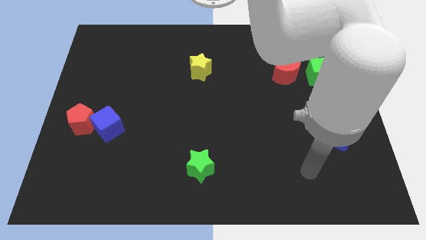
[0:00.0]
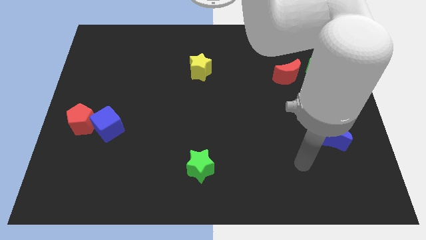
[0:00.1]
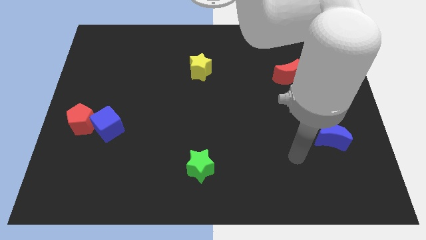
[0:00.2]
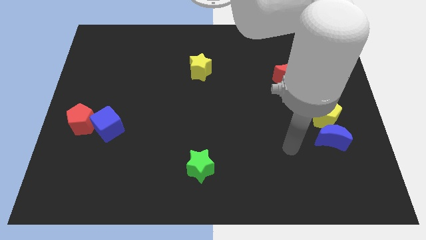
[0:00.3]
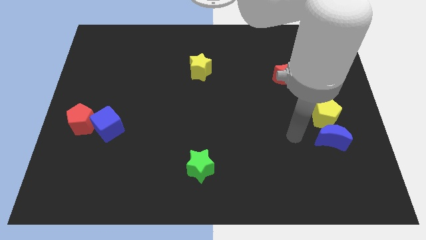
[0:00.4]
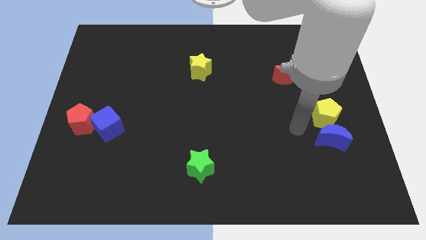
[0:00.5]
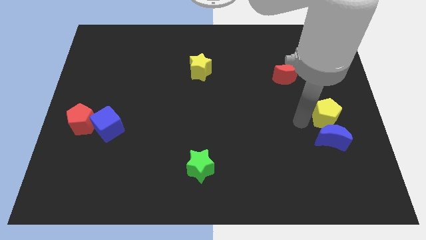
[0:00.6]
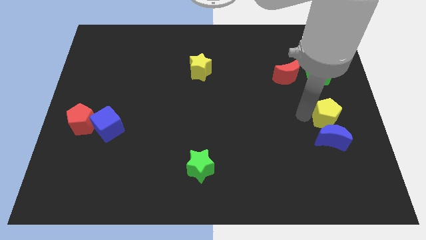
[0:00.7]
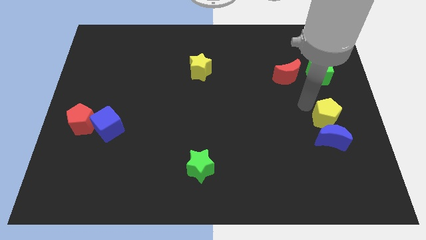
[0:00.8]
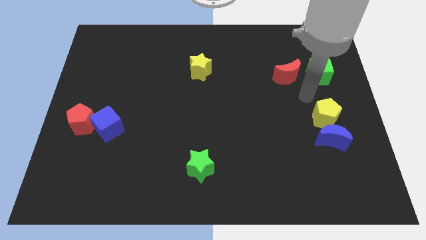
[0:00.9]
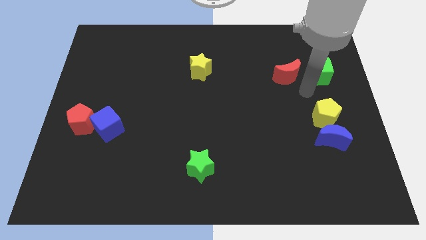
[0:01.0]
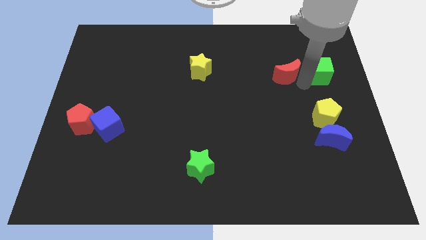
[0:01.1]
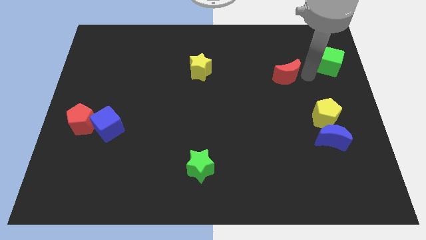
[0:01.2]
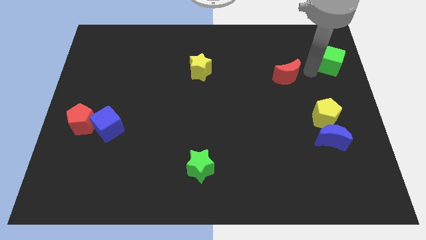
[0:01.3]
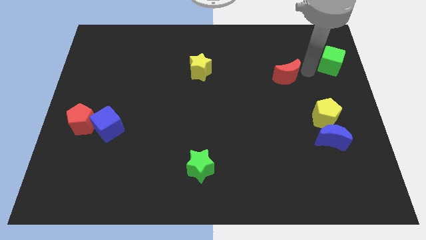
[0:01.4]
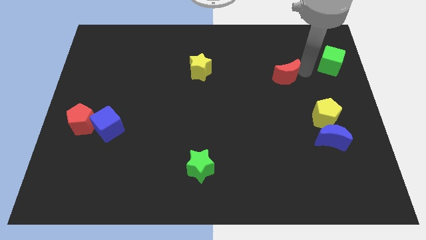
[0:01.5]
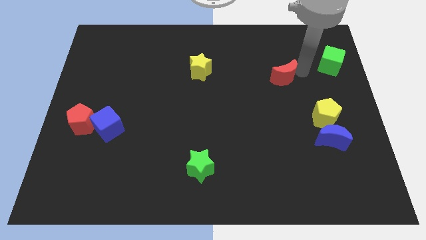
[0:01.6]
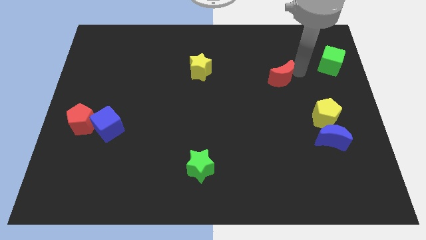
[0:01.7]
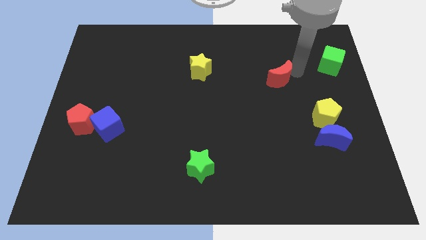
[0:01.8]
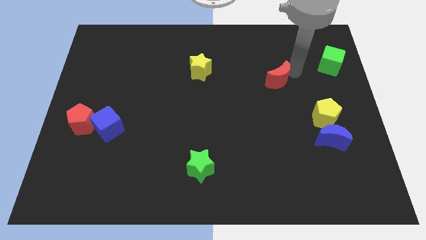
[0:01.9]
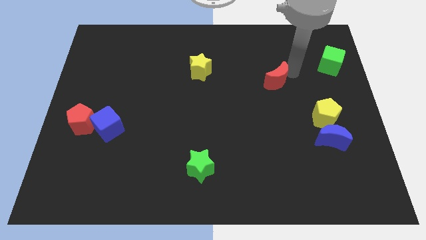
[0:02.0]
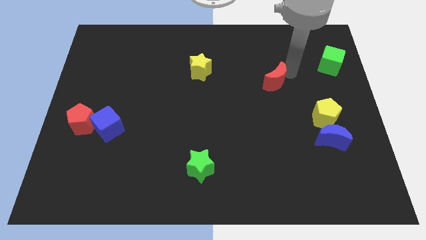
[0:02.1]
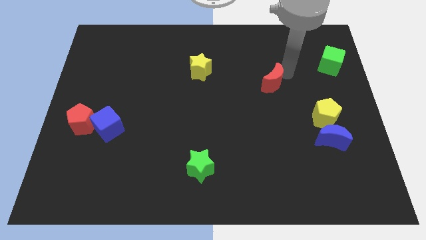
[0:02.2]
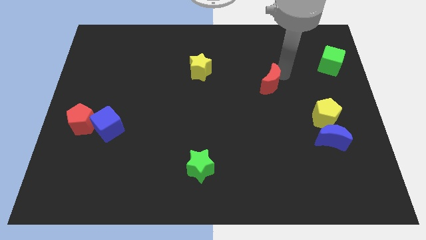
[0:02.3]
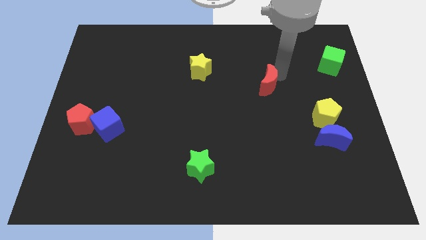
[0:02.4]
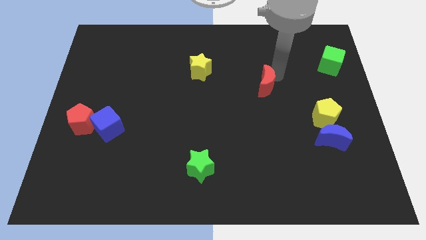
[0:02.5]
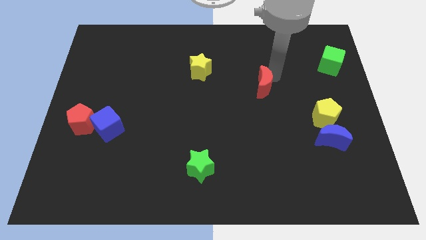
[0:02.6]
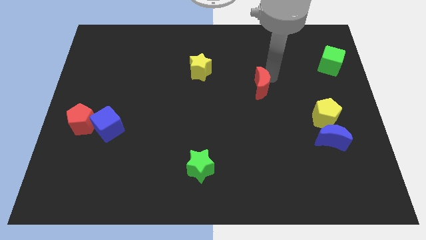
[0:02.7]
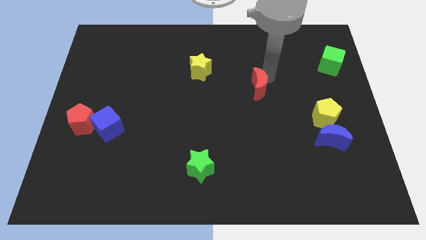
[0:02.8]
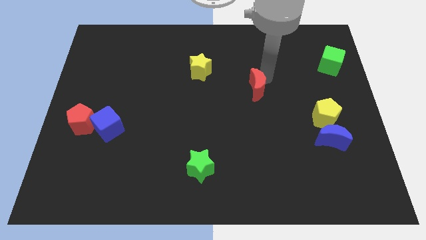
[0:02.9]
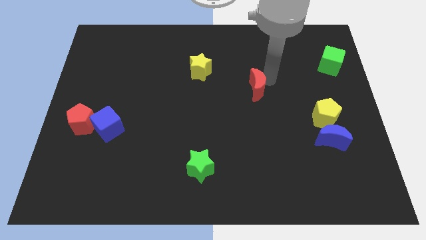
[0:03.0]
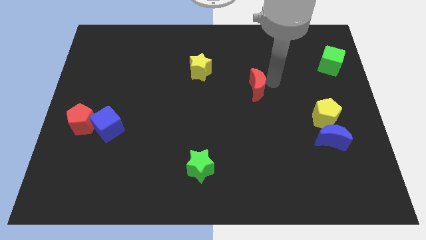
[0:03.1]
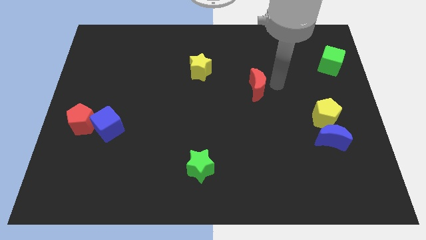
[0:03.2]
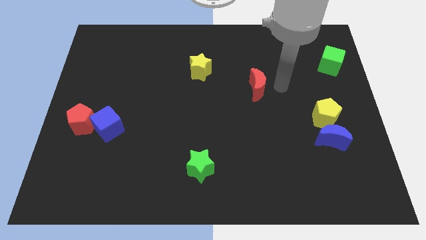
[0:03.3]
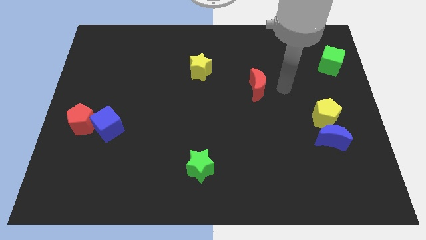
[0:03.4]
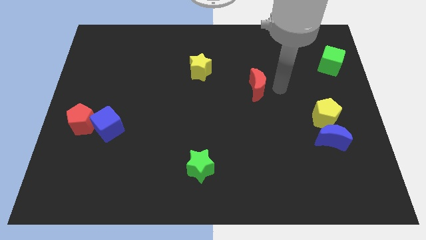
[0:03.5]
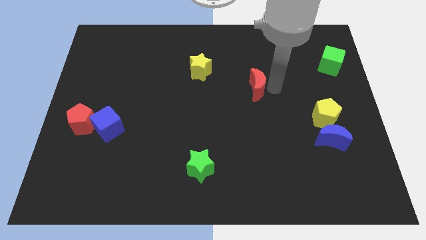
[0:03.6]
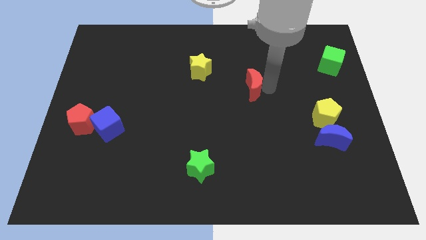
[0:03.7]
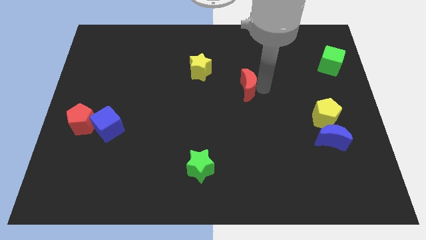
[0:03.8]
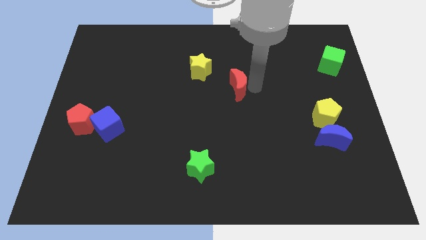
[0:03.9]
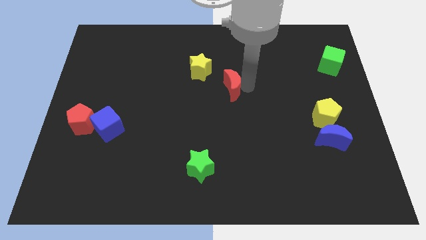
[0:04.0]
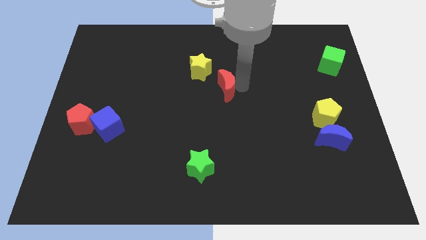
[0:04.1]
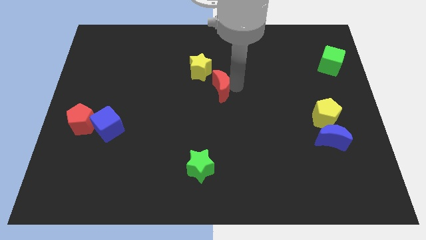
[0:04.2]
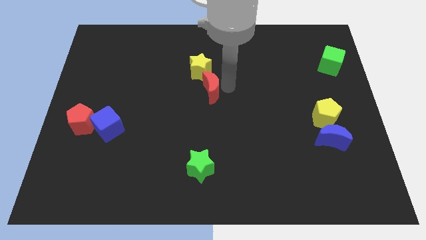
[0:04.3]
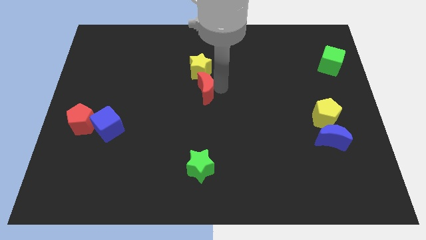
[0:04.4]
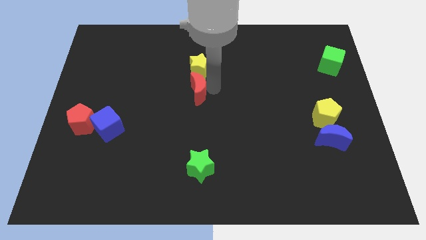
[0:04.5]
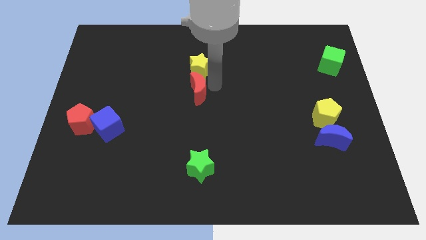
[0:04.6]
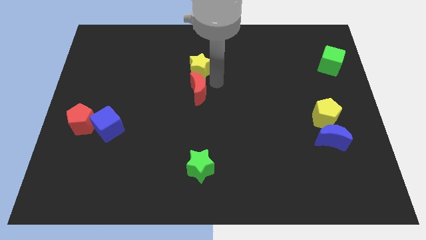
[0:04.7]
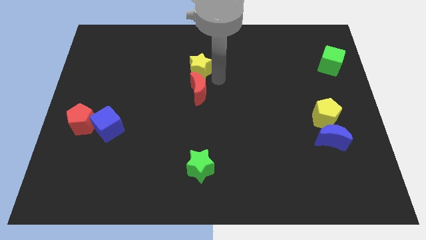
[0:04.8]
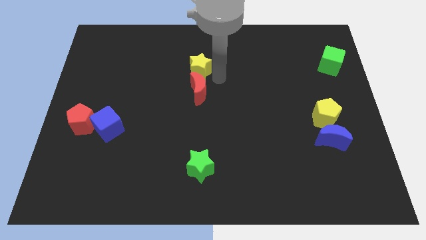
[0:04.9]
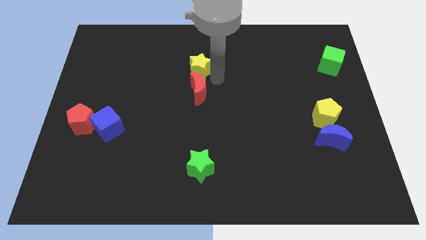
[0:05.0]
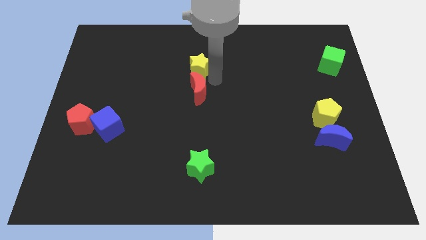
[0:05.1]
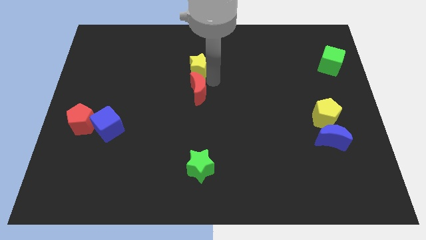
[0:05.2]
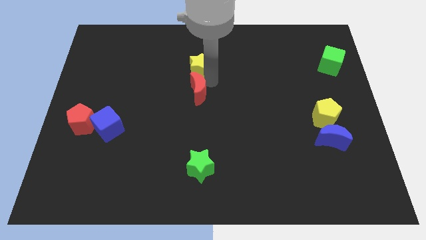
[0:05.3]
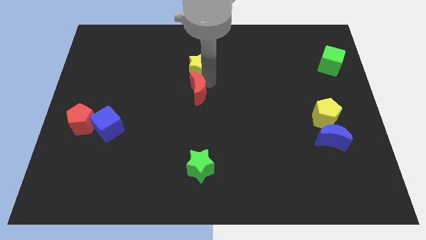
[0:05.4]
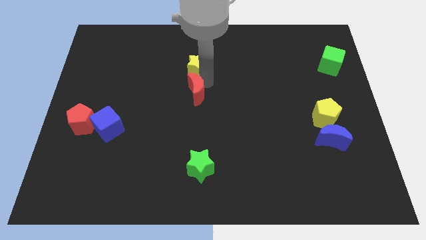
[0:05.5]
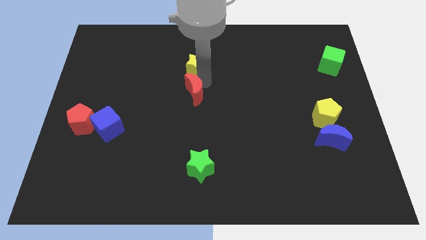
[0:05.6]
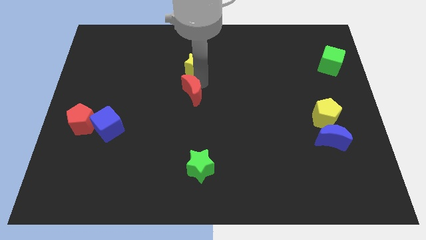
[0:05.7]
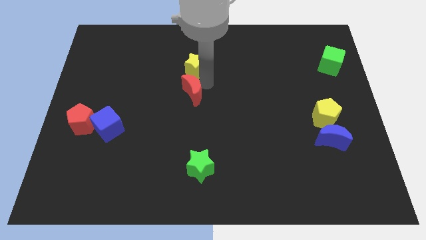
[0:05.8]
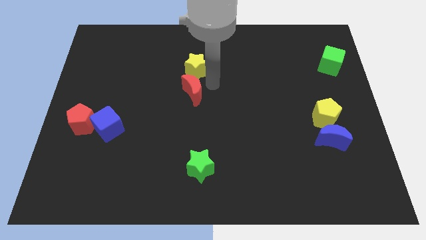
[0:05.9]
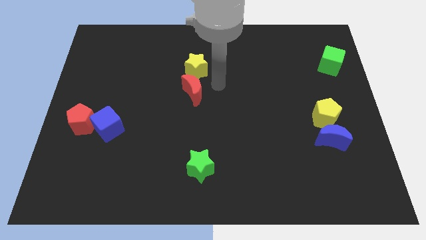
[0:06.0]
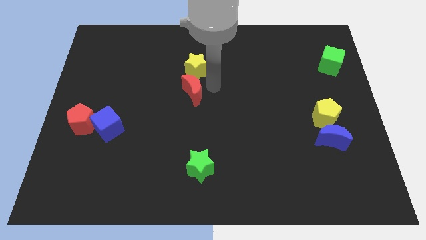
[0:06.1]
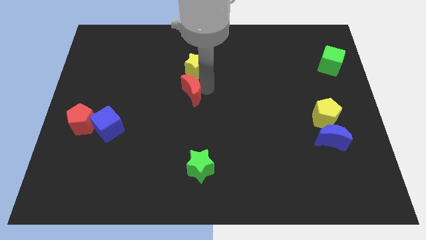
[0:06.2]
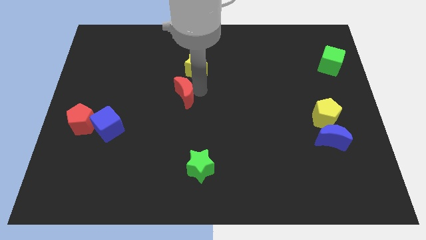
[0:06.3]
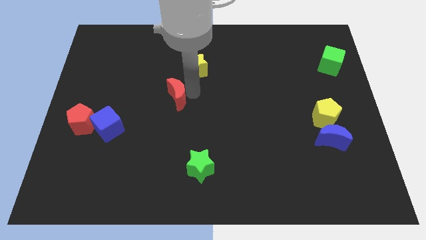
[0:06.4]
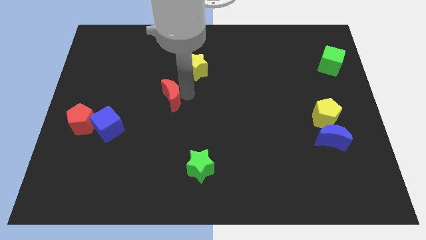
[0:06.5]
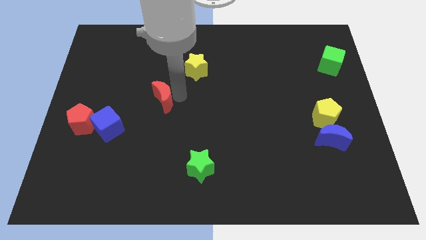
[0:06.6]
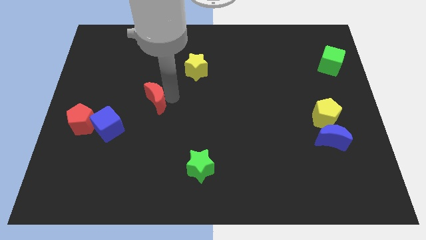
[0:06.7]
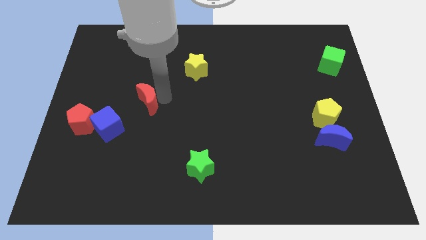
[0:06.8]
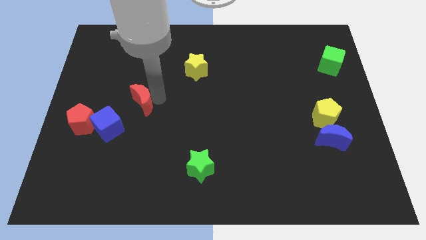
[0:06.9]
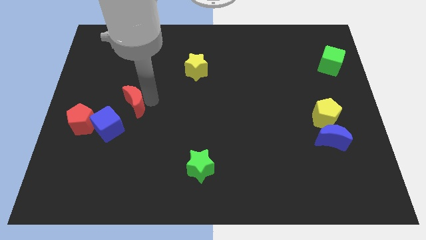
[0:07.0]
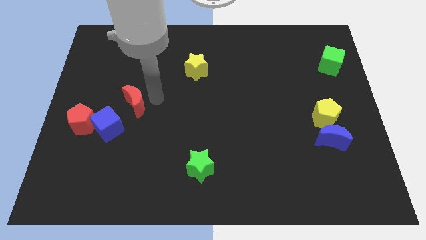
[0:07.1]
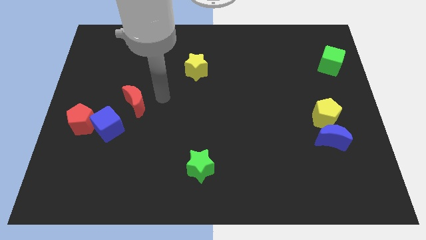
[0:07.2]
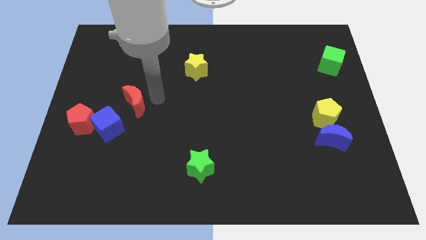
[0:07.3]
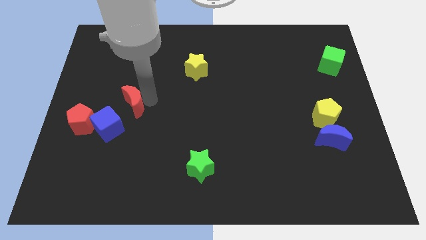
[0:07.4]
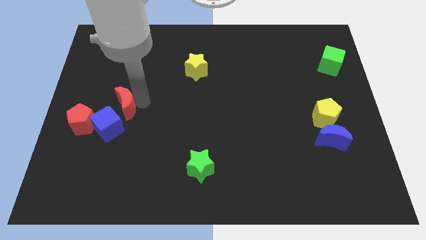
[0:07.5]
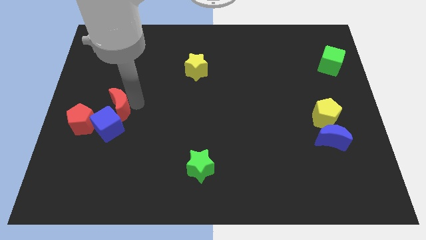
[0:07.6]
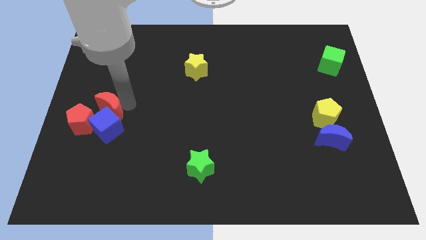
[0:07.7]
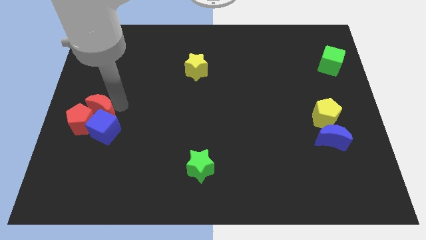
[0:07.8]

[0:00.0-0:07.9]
slide the red moon next to the red pentagon
